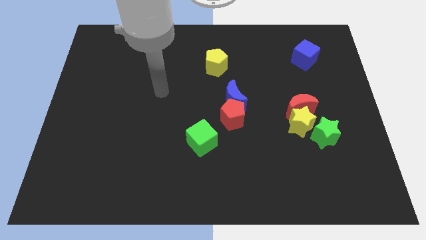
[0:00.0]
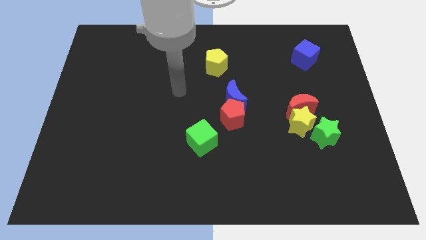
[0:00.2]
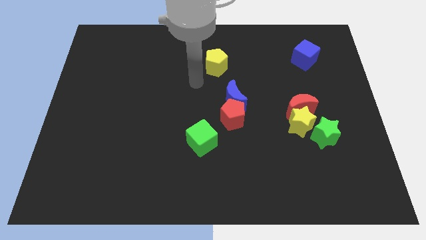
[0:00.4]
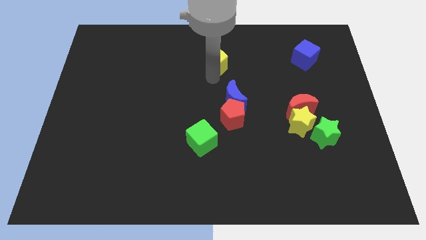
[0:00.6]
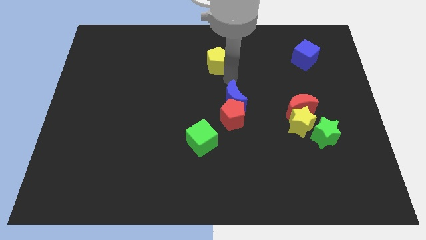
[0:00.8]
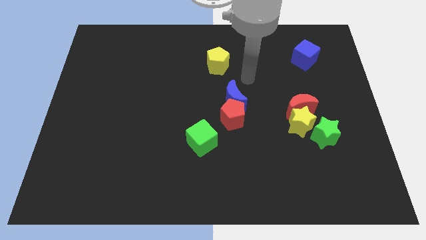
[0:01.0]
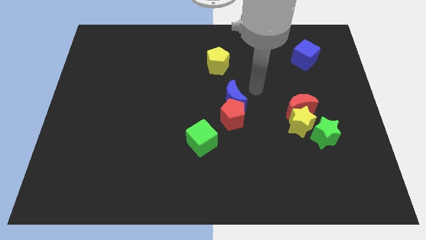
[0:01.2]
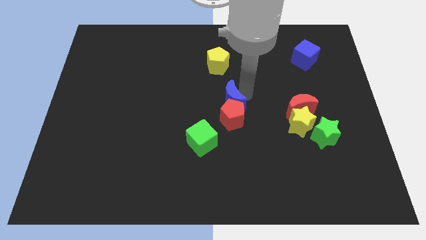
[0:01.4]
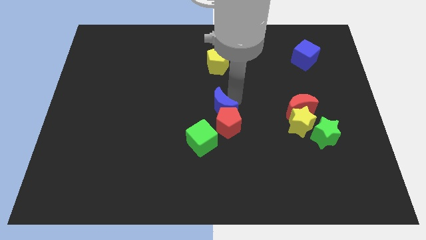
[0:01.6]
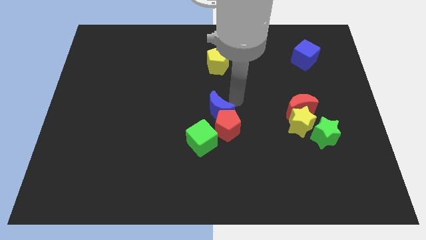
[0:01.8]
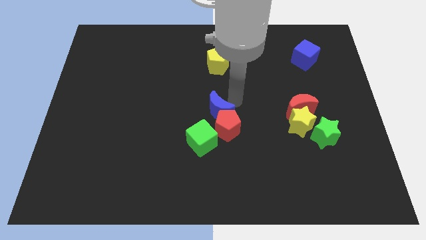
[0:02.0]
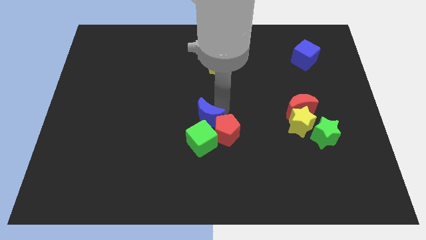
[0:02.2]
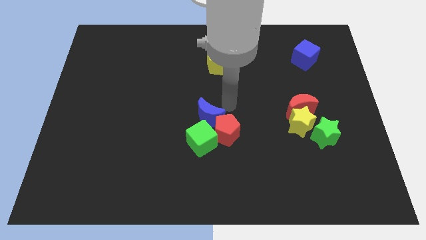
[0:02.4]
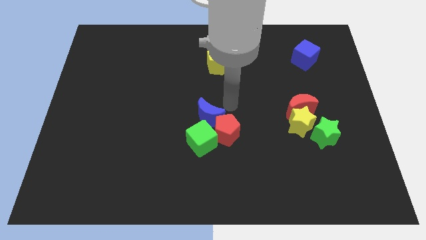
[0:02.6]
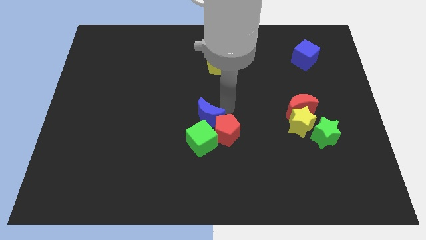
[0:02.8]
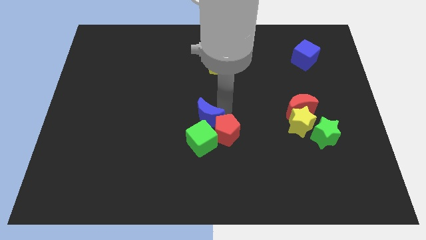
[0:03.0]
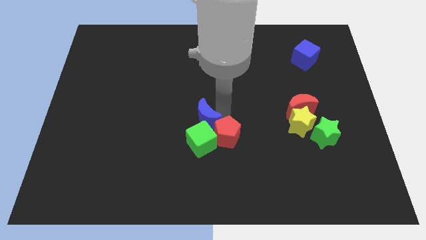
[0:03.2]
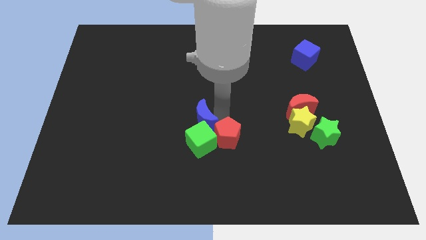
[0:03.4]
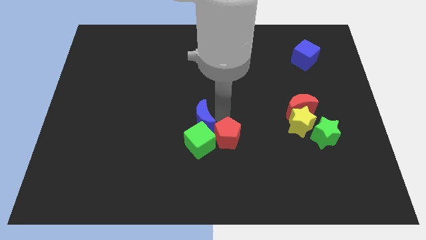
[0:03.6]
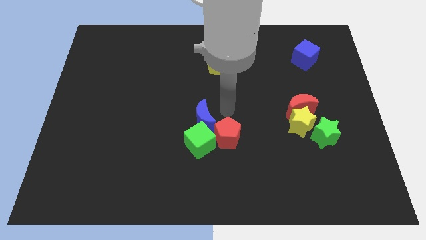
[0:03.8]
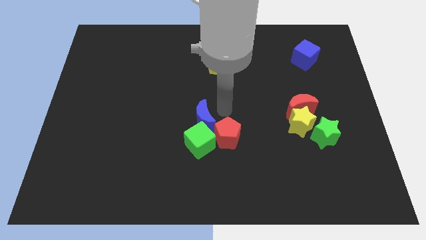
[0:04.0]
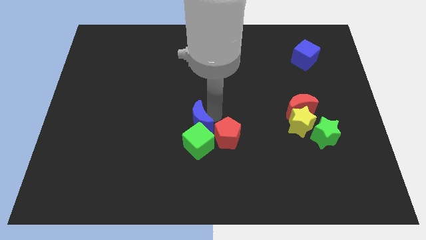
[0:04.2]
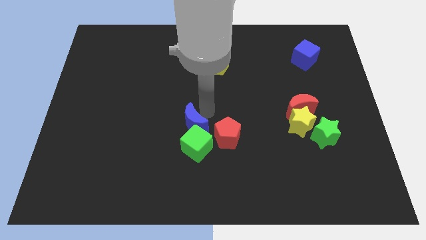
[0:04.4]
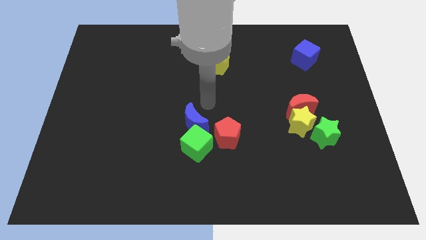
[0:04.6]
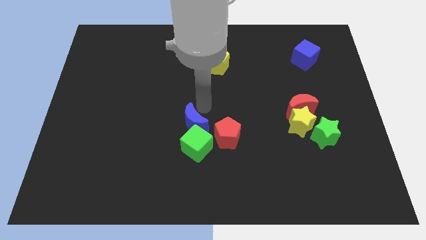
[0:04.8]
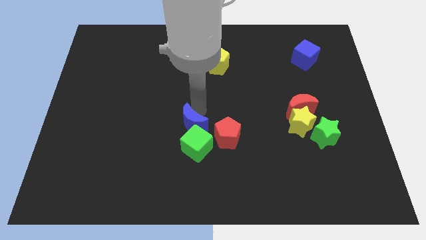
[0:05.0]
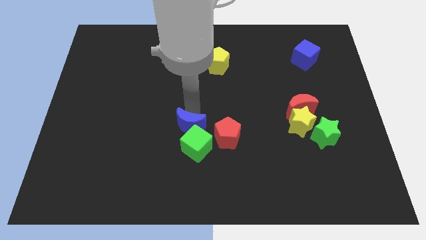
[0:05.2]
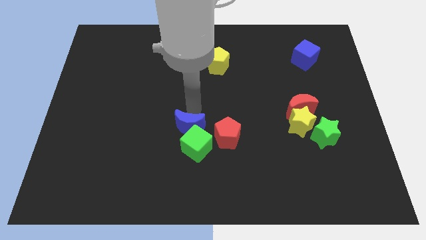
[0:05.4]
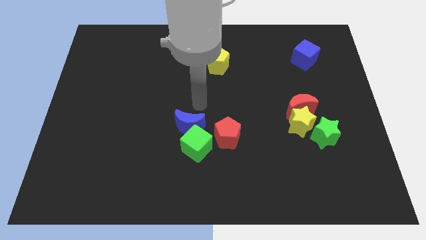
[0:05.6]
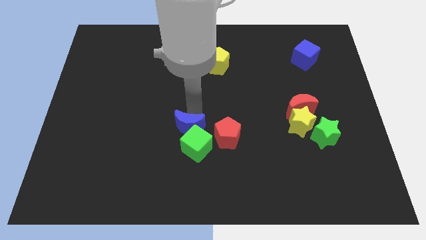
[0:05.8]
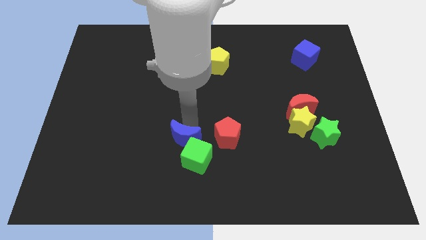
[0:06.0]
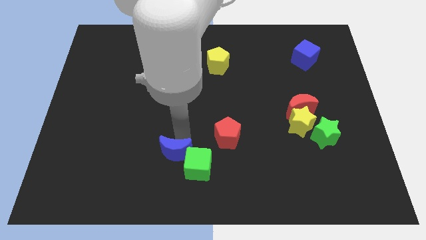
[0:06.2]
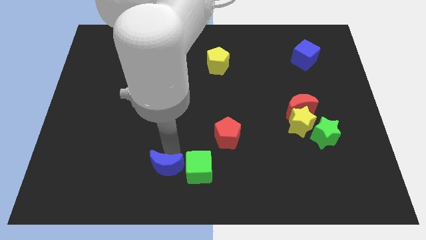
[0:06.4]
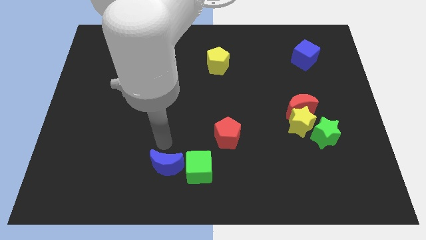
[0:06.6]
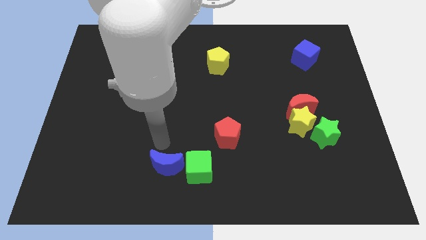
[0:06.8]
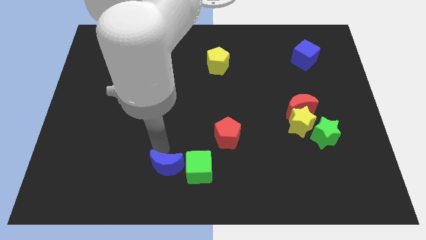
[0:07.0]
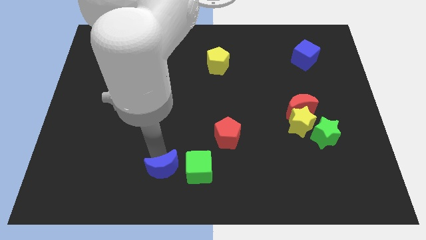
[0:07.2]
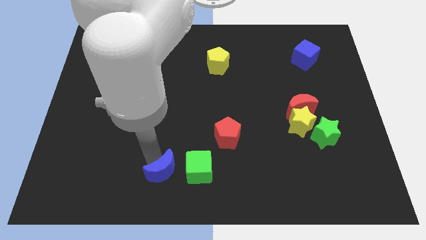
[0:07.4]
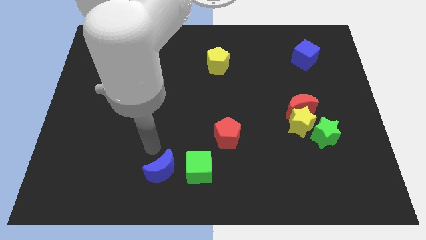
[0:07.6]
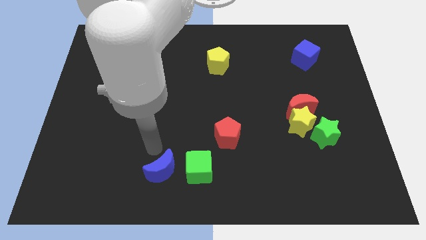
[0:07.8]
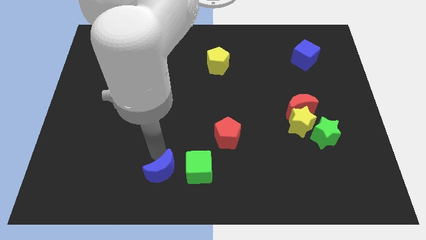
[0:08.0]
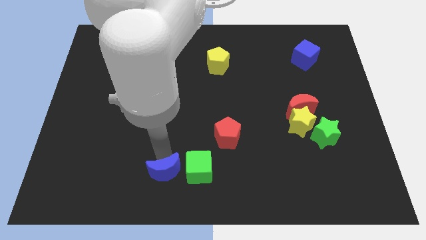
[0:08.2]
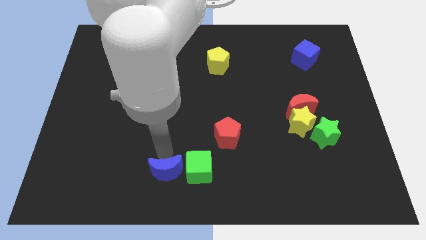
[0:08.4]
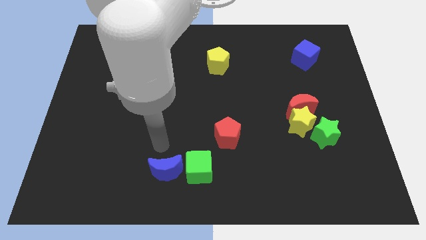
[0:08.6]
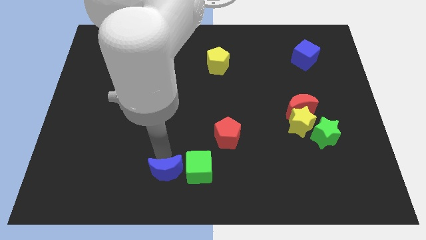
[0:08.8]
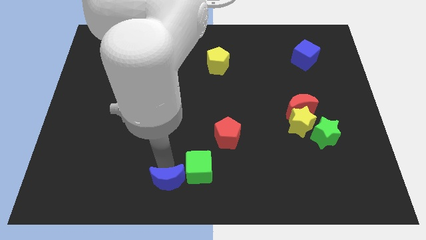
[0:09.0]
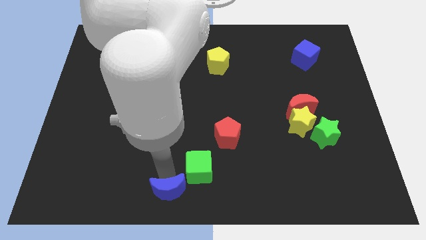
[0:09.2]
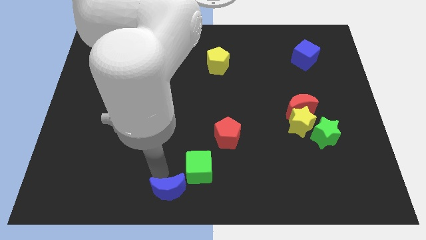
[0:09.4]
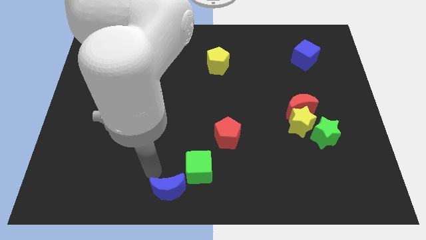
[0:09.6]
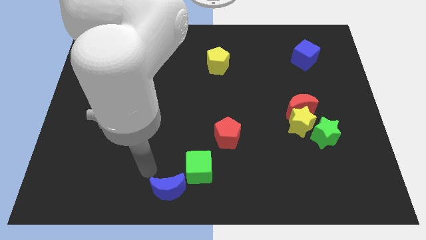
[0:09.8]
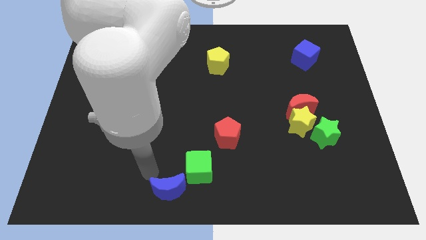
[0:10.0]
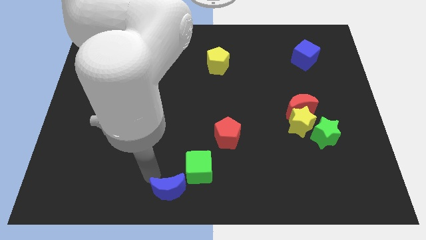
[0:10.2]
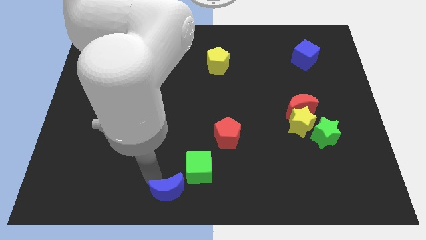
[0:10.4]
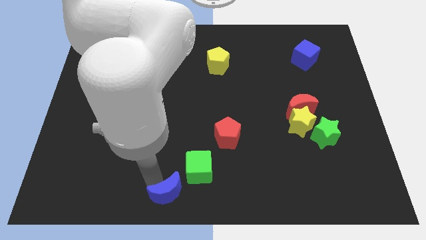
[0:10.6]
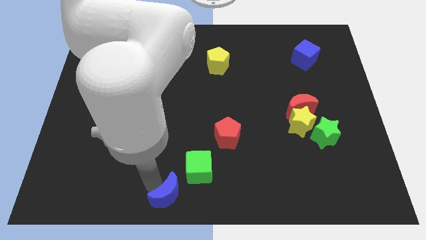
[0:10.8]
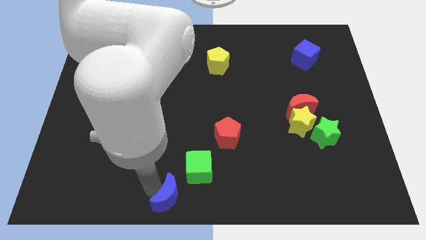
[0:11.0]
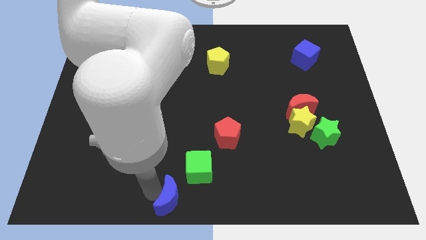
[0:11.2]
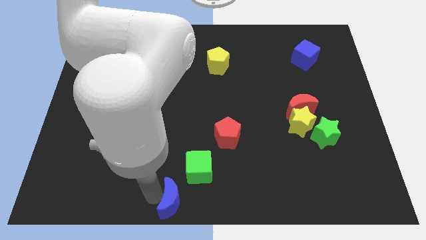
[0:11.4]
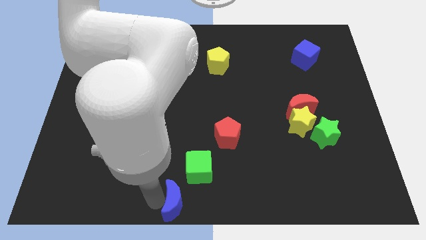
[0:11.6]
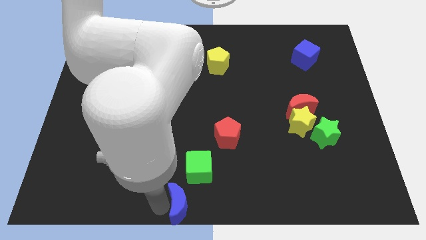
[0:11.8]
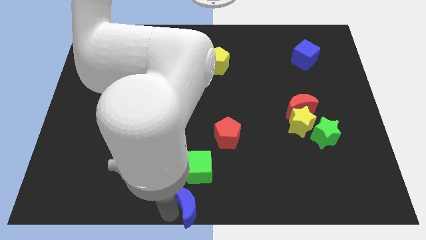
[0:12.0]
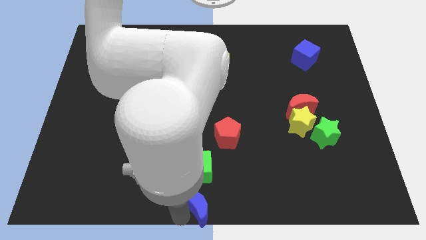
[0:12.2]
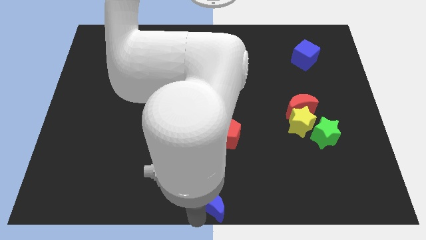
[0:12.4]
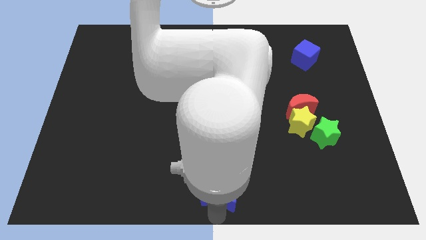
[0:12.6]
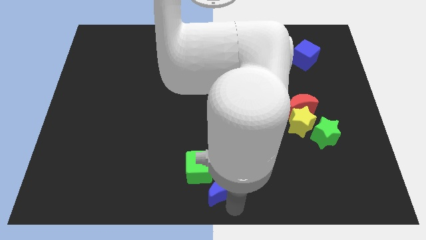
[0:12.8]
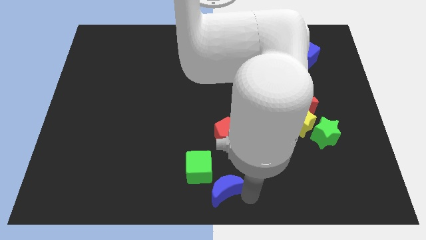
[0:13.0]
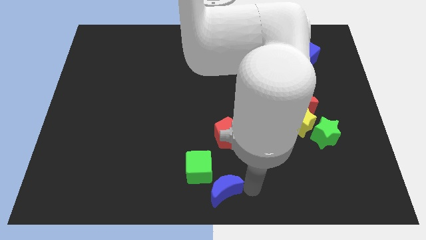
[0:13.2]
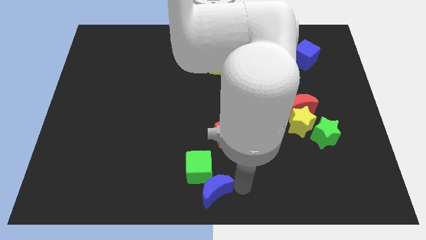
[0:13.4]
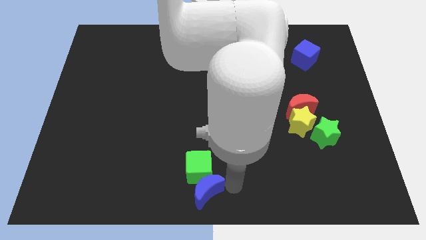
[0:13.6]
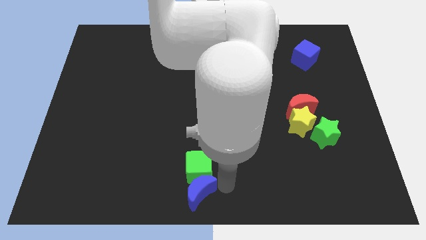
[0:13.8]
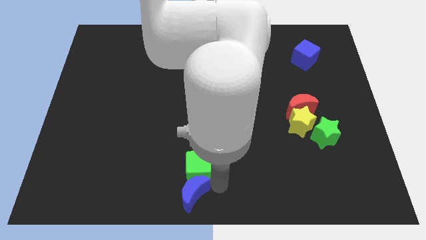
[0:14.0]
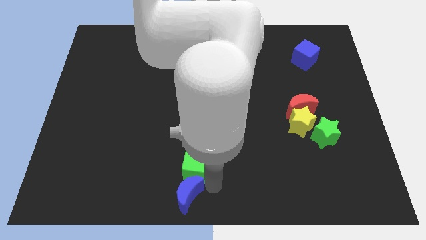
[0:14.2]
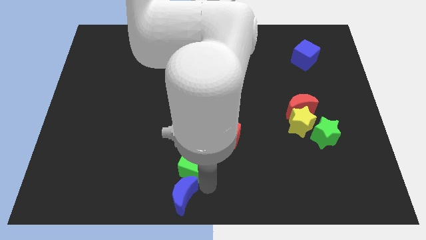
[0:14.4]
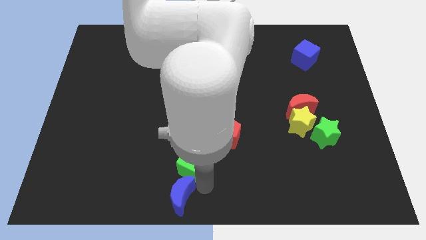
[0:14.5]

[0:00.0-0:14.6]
put the blue moon diagonally down and to the left of the green cube
